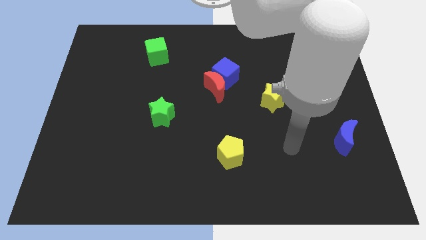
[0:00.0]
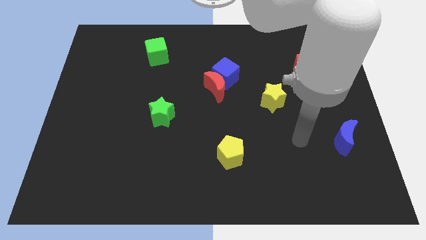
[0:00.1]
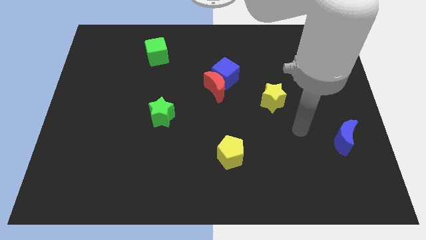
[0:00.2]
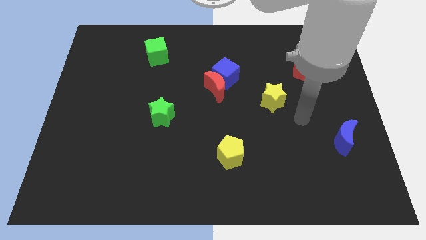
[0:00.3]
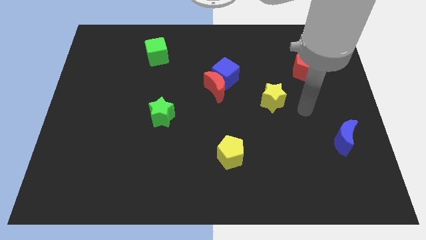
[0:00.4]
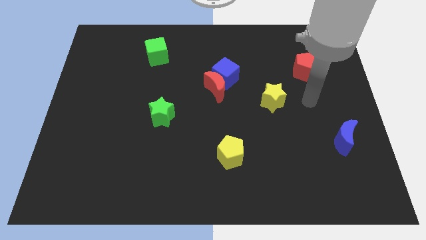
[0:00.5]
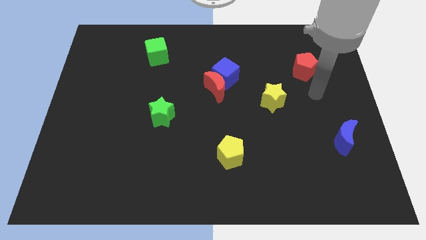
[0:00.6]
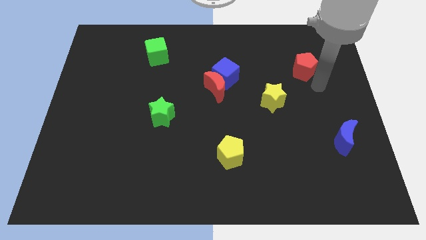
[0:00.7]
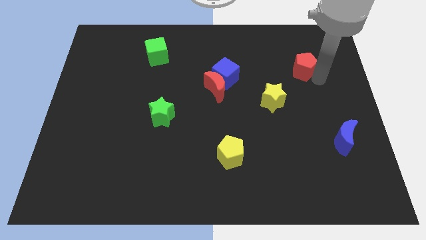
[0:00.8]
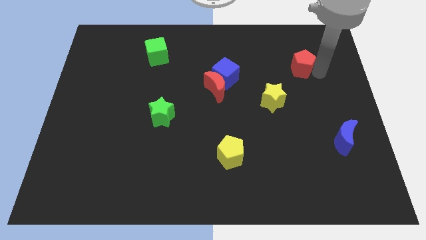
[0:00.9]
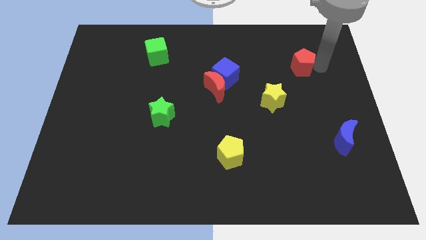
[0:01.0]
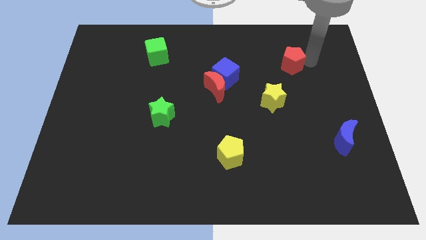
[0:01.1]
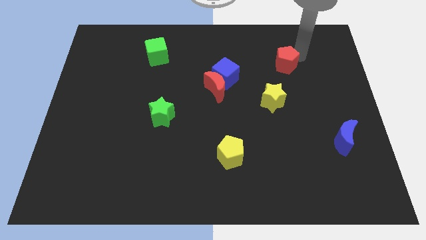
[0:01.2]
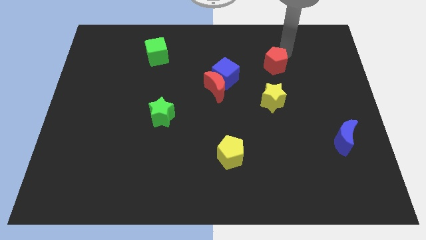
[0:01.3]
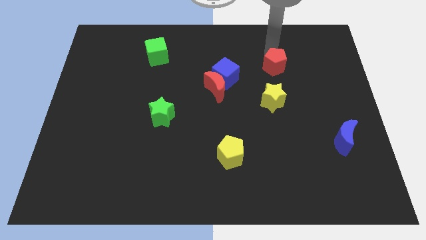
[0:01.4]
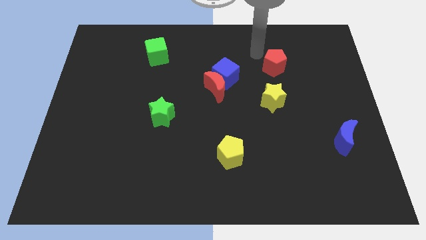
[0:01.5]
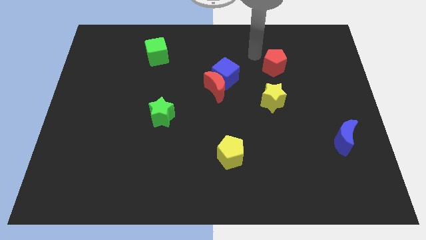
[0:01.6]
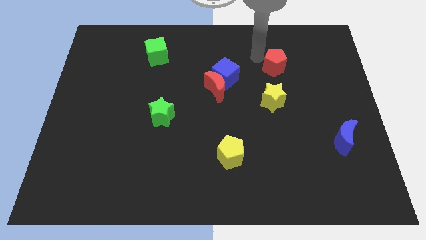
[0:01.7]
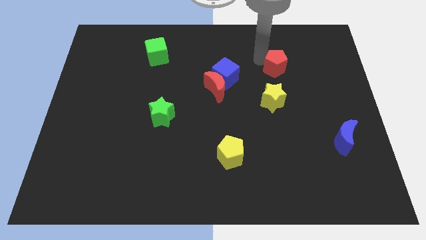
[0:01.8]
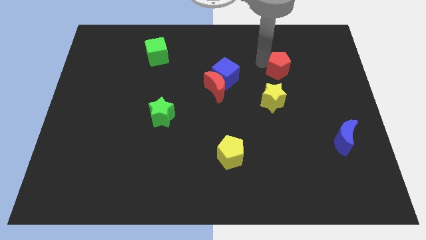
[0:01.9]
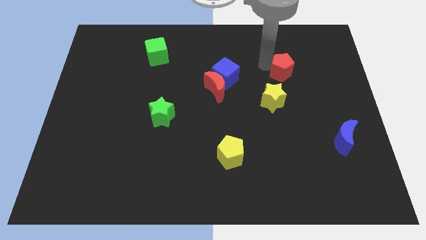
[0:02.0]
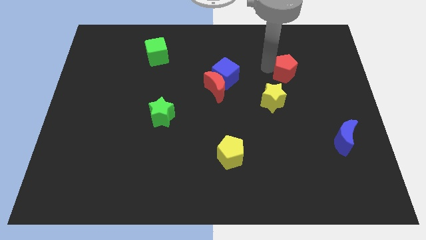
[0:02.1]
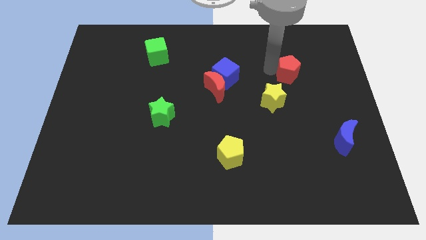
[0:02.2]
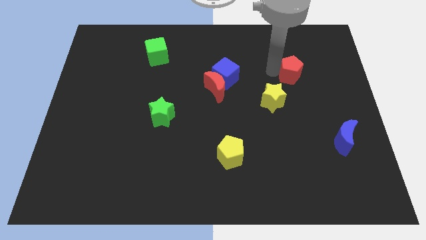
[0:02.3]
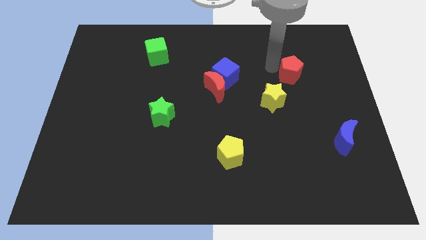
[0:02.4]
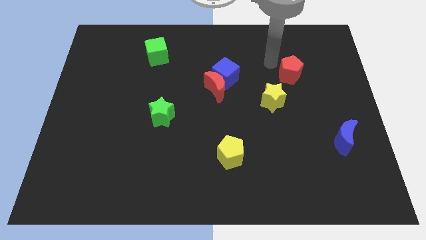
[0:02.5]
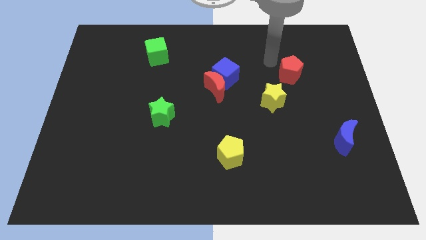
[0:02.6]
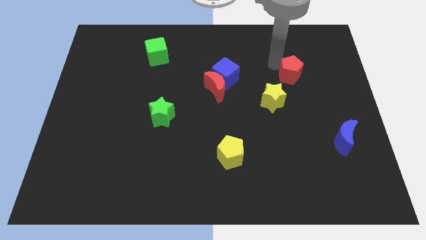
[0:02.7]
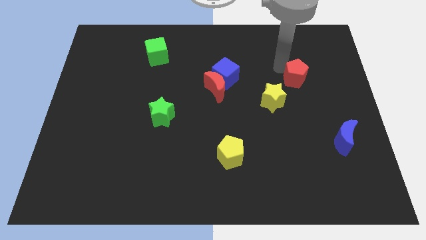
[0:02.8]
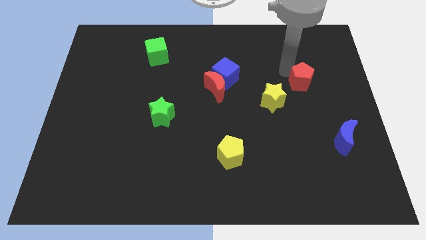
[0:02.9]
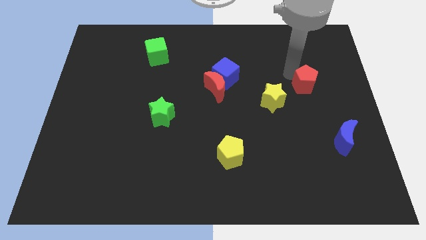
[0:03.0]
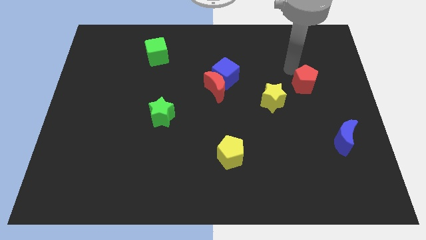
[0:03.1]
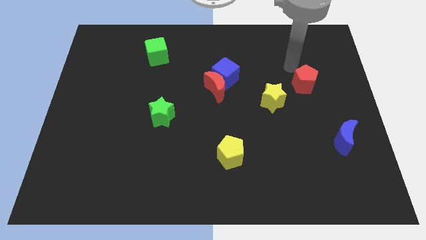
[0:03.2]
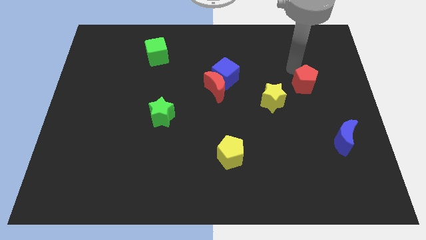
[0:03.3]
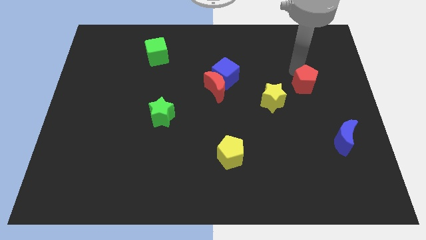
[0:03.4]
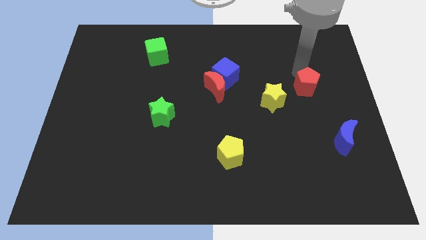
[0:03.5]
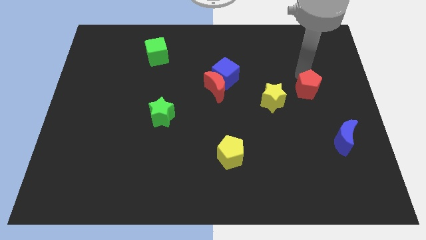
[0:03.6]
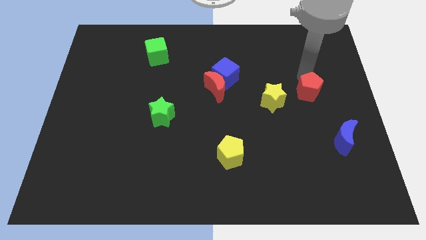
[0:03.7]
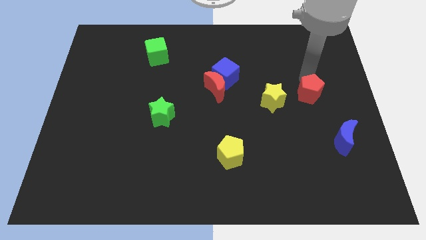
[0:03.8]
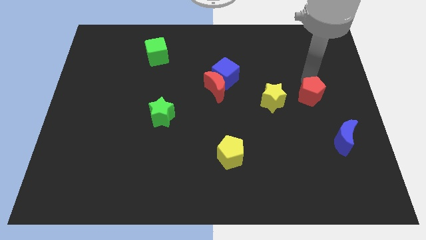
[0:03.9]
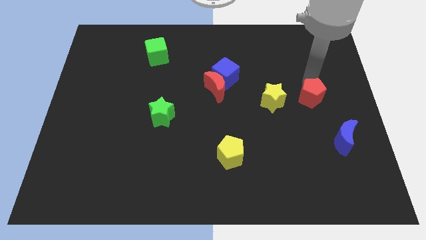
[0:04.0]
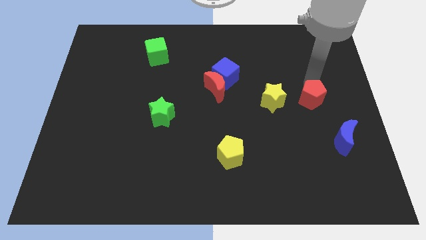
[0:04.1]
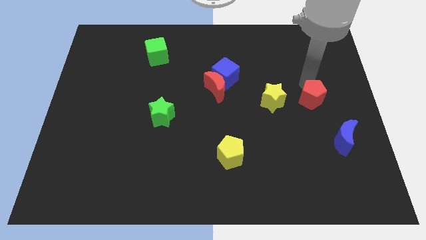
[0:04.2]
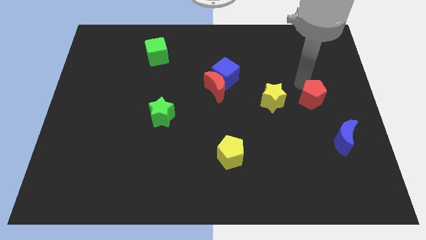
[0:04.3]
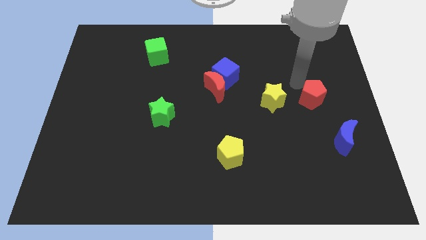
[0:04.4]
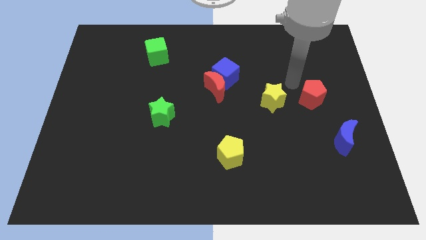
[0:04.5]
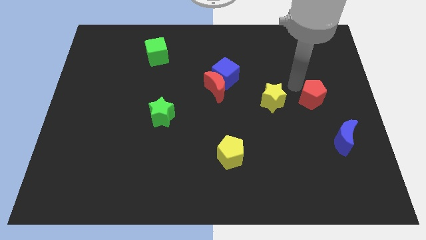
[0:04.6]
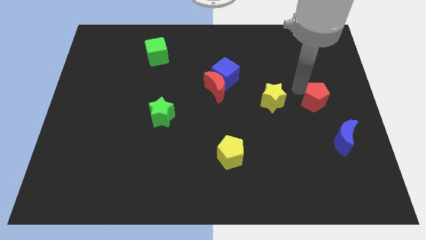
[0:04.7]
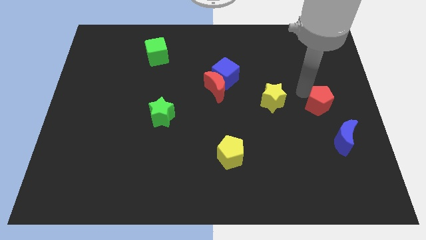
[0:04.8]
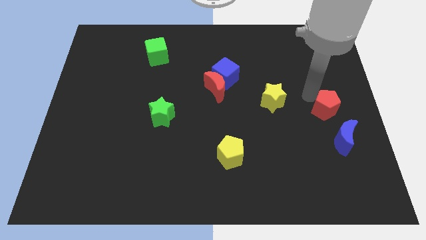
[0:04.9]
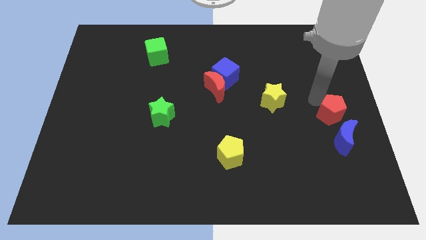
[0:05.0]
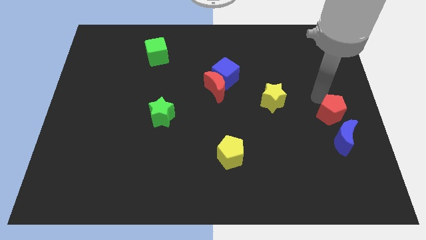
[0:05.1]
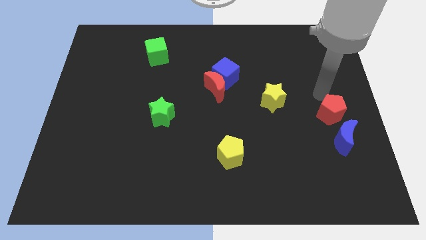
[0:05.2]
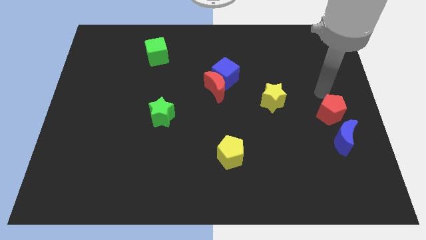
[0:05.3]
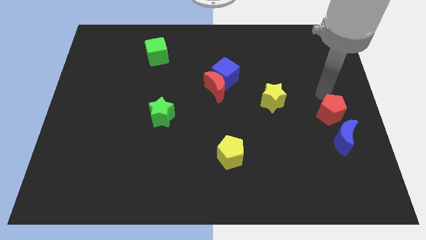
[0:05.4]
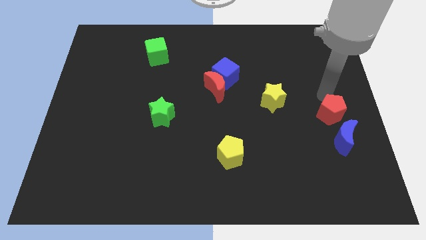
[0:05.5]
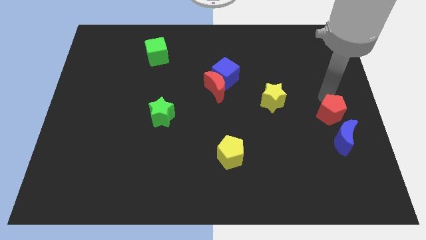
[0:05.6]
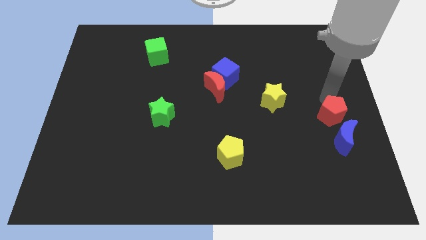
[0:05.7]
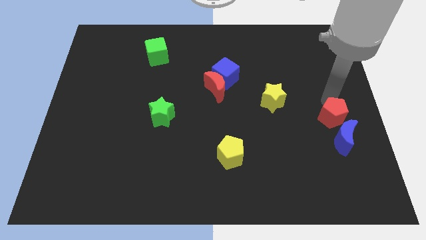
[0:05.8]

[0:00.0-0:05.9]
put the red pentagon to the blue moon

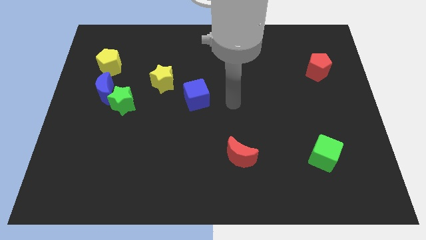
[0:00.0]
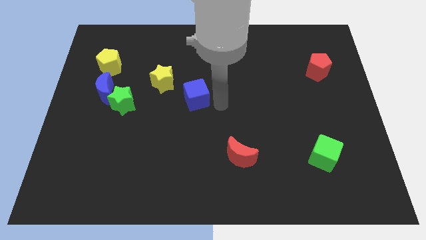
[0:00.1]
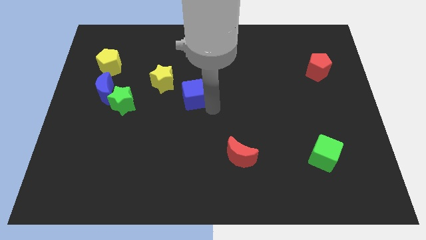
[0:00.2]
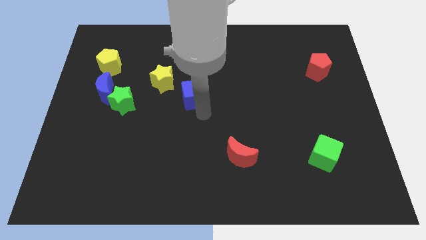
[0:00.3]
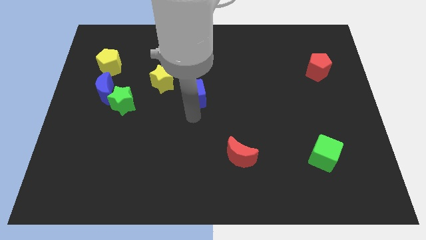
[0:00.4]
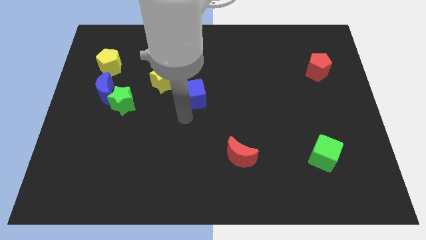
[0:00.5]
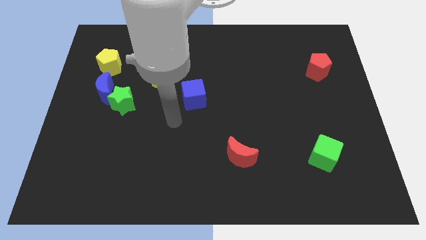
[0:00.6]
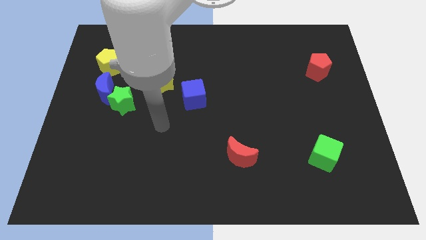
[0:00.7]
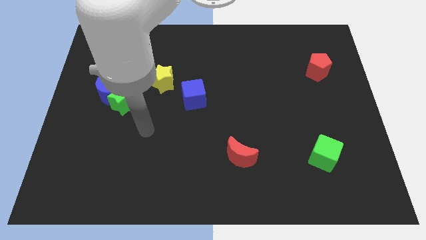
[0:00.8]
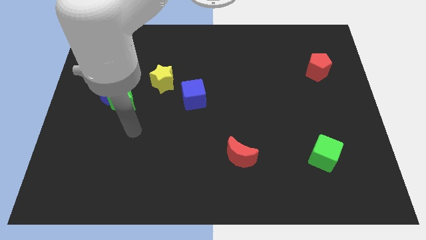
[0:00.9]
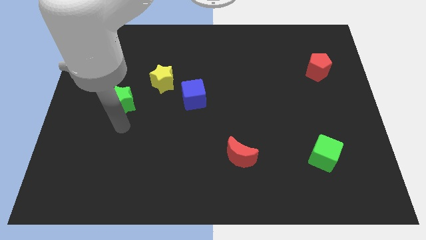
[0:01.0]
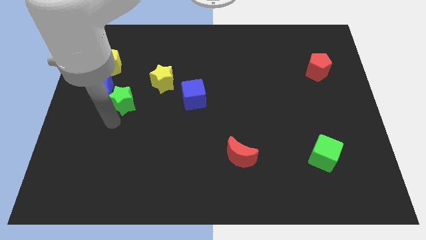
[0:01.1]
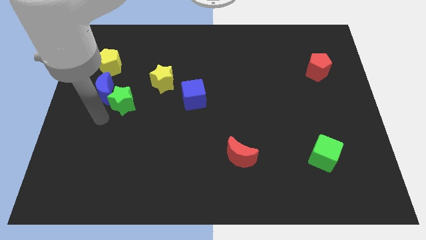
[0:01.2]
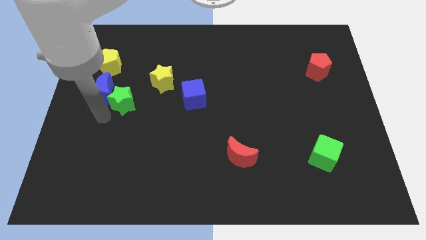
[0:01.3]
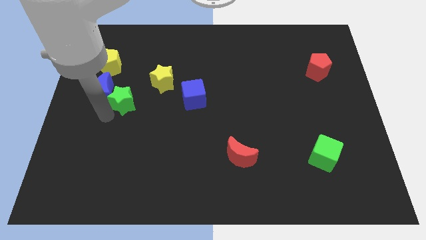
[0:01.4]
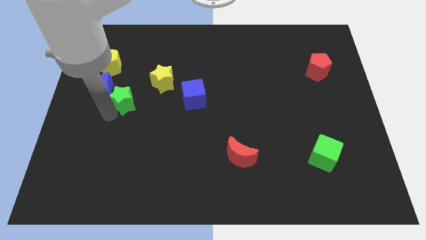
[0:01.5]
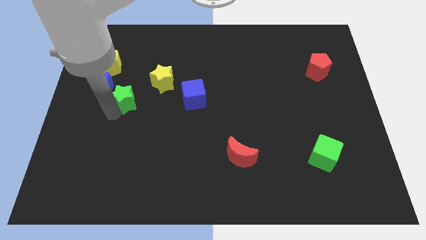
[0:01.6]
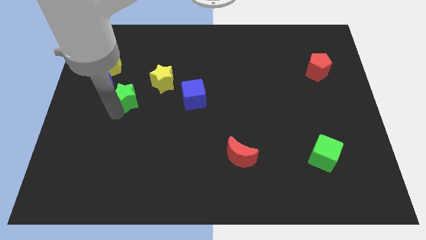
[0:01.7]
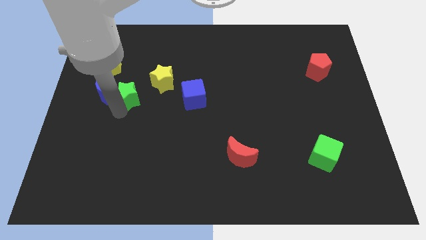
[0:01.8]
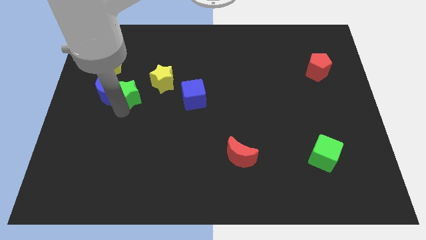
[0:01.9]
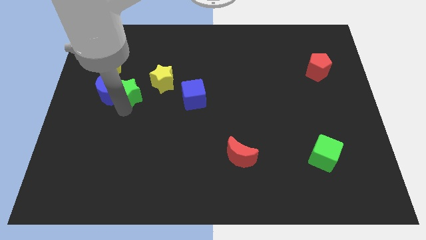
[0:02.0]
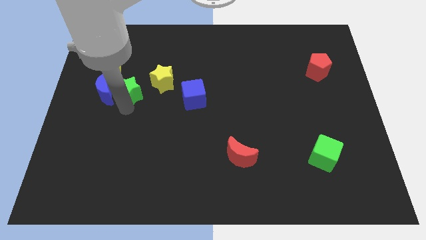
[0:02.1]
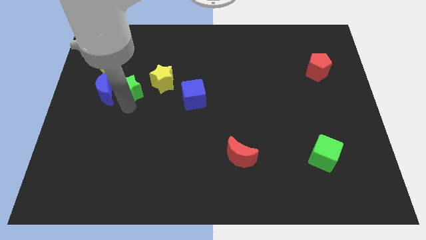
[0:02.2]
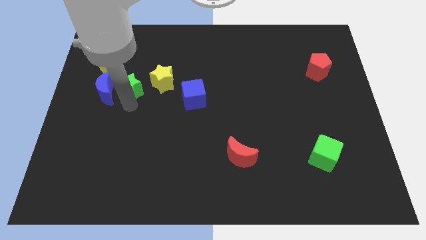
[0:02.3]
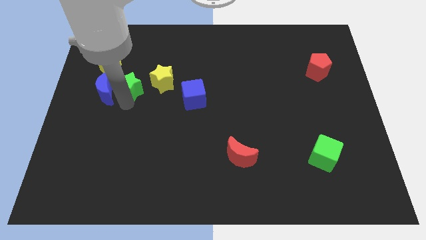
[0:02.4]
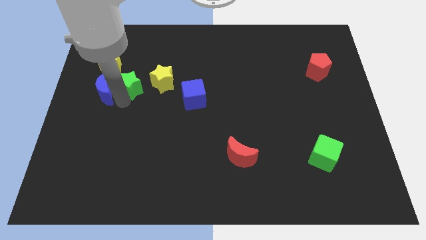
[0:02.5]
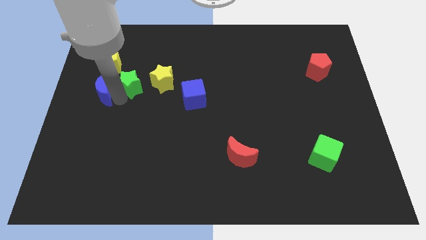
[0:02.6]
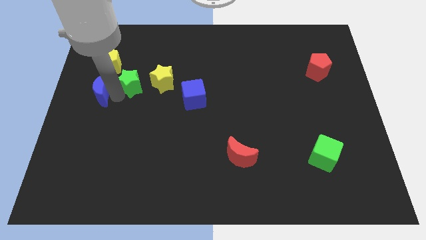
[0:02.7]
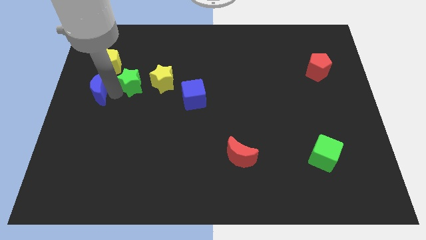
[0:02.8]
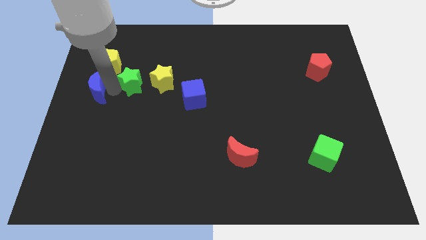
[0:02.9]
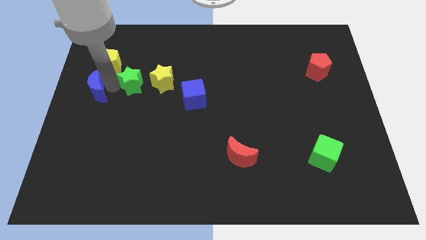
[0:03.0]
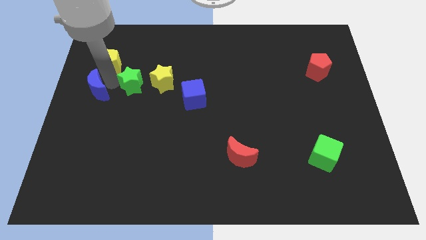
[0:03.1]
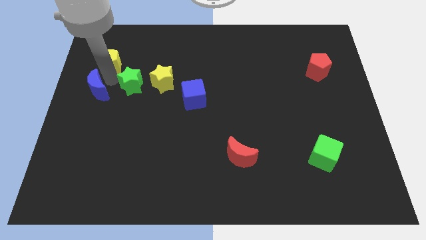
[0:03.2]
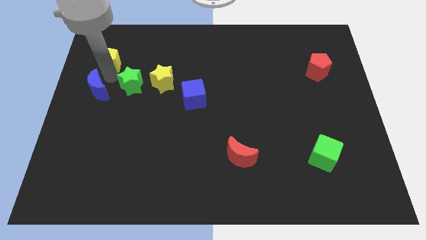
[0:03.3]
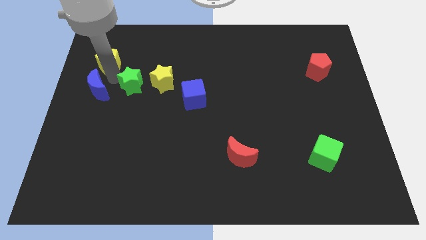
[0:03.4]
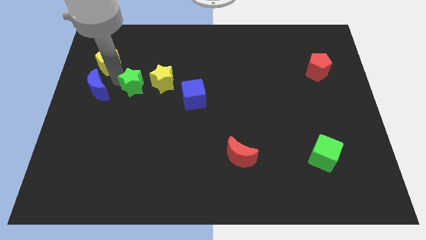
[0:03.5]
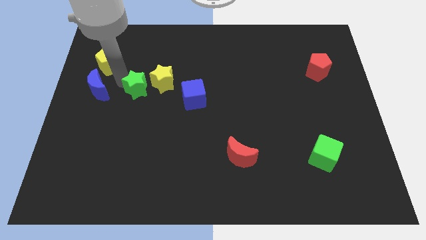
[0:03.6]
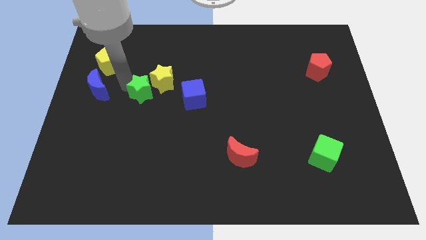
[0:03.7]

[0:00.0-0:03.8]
slide the green star close to the yellow star
